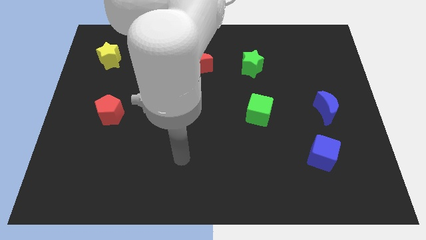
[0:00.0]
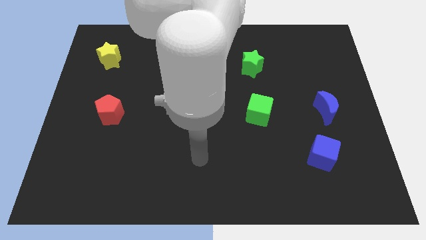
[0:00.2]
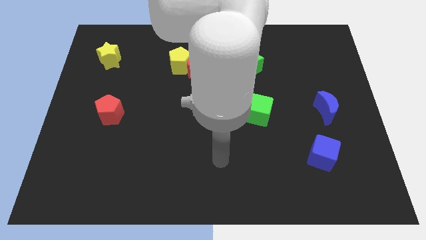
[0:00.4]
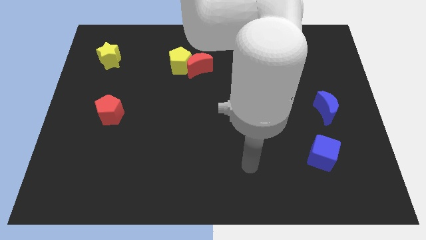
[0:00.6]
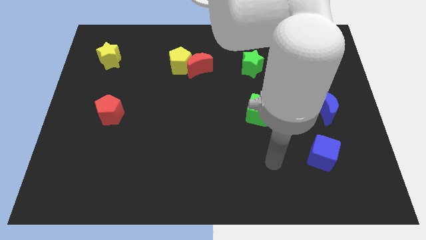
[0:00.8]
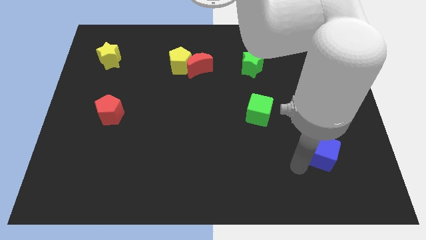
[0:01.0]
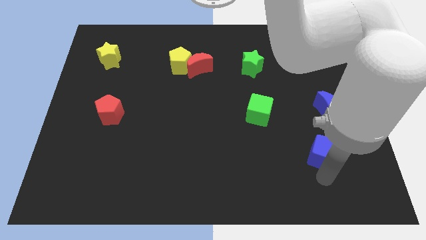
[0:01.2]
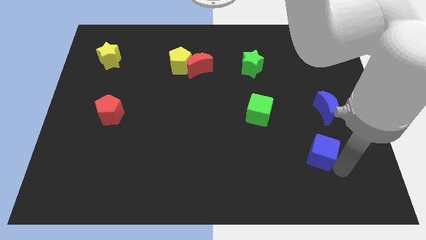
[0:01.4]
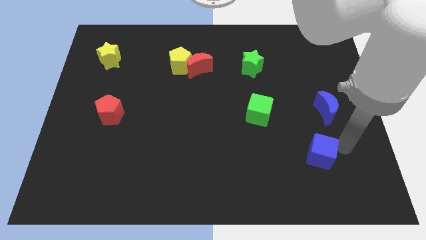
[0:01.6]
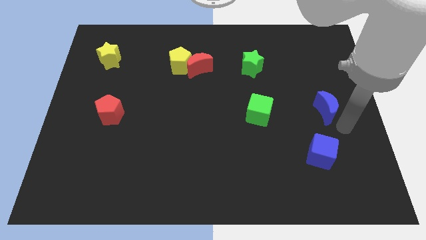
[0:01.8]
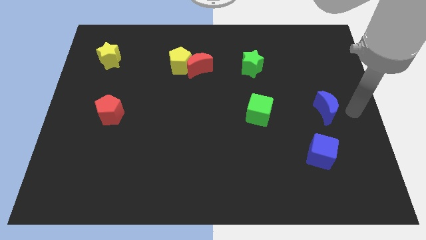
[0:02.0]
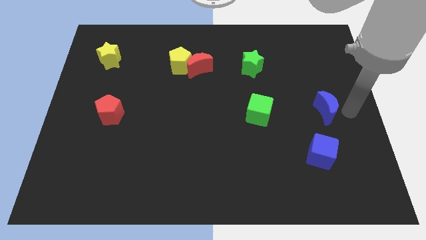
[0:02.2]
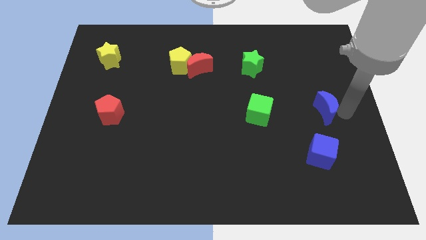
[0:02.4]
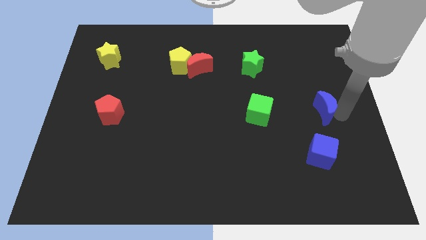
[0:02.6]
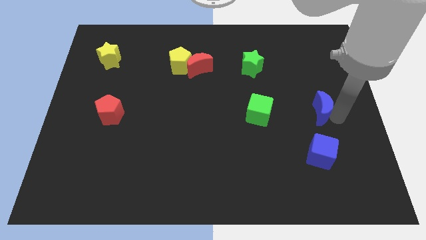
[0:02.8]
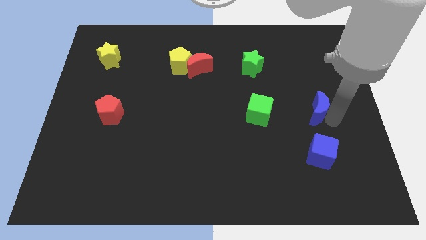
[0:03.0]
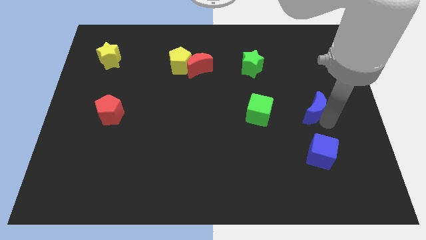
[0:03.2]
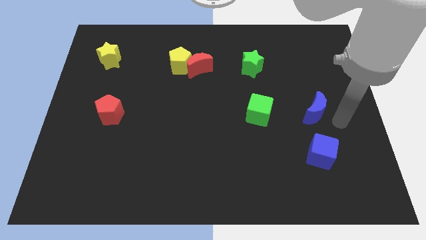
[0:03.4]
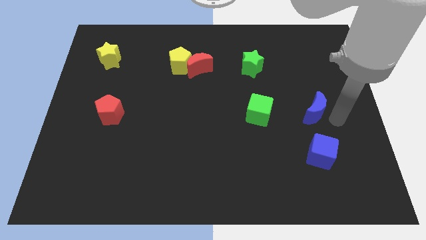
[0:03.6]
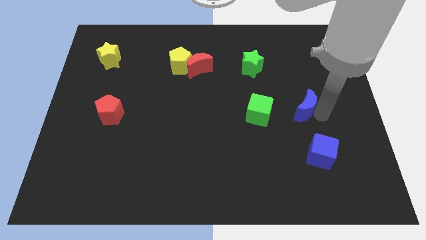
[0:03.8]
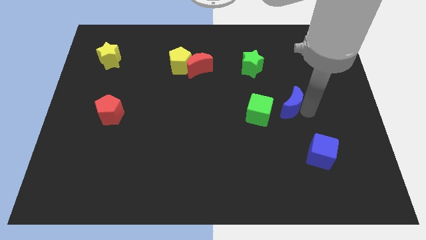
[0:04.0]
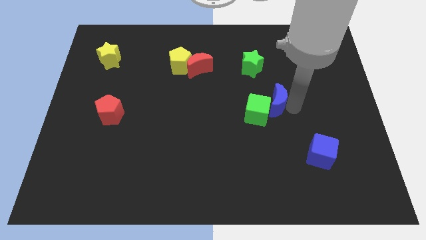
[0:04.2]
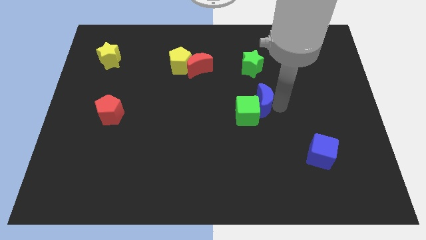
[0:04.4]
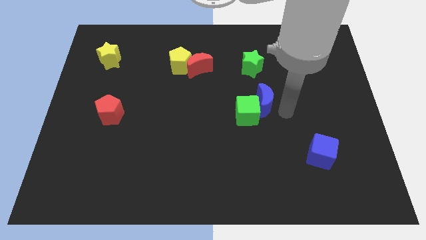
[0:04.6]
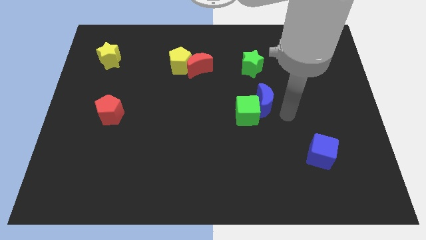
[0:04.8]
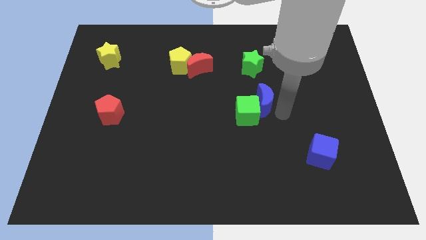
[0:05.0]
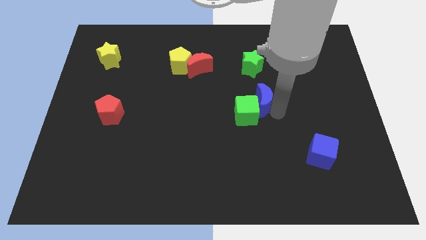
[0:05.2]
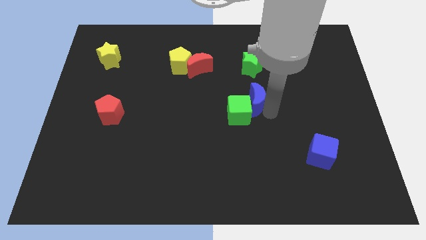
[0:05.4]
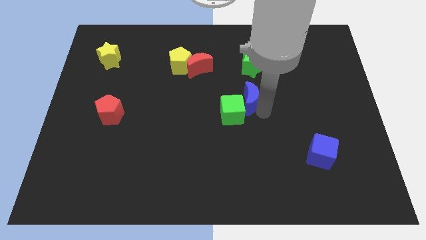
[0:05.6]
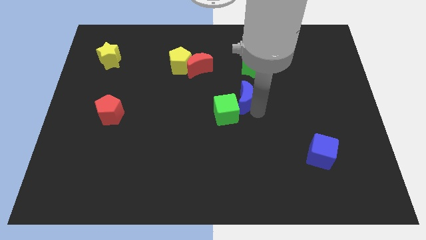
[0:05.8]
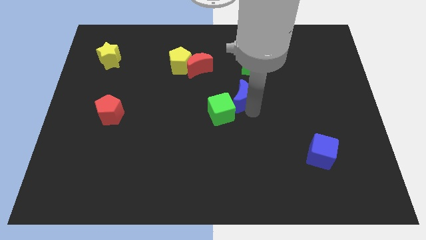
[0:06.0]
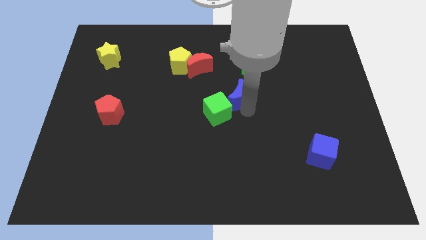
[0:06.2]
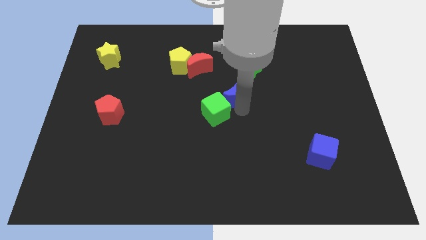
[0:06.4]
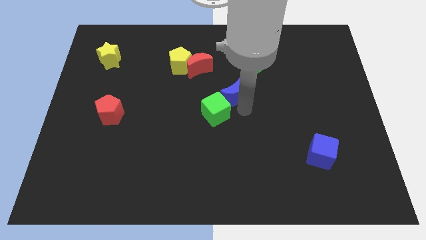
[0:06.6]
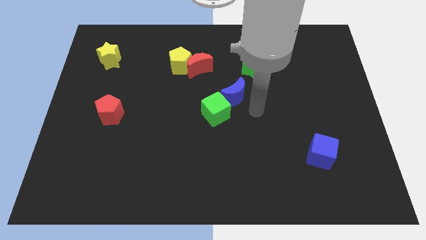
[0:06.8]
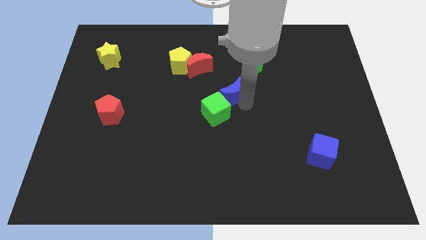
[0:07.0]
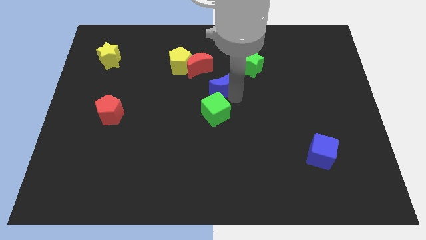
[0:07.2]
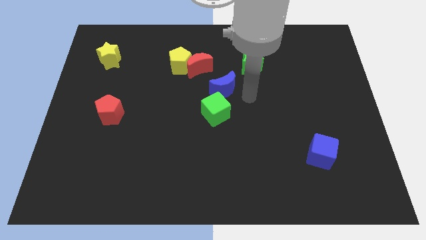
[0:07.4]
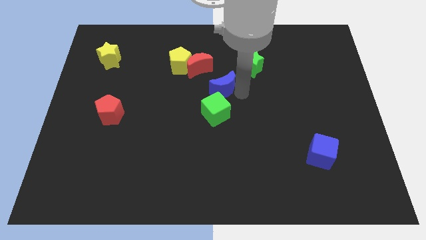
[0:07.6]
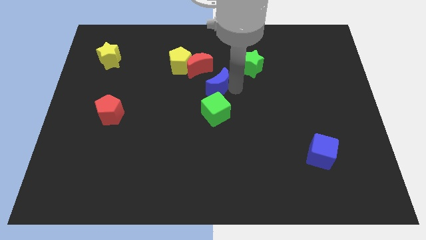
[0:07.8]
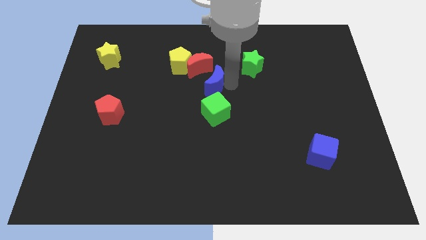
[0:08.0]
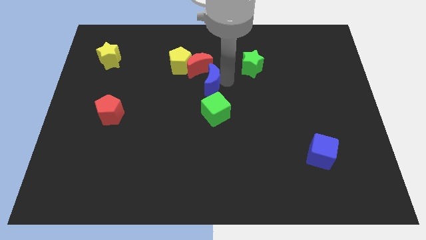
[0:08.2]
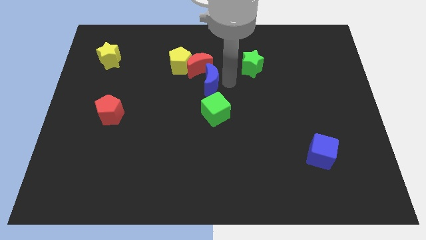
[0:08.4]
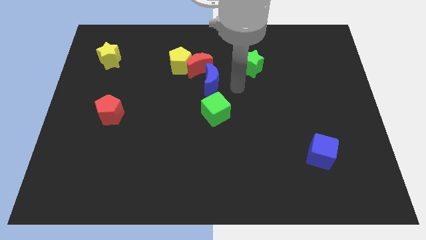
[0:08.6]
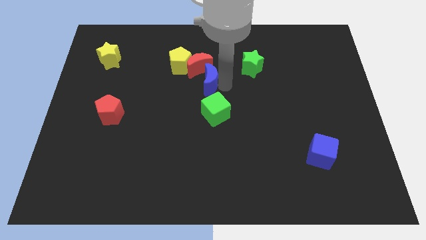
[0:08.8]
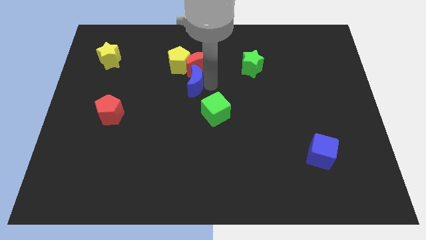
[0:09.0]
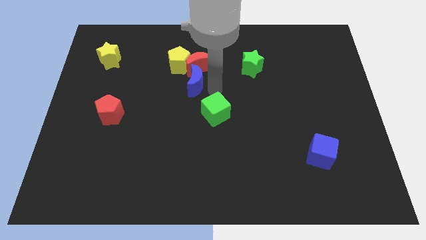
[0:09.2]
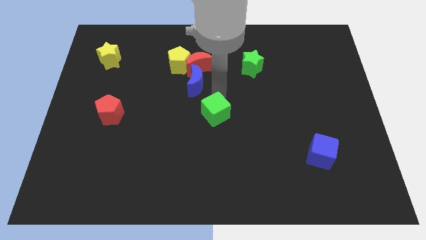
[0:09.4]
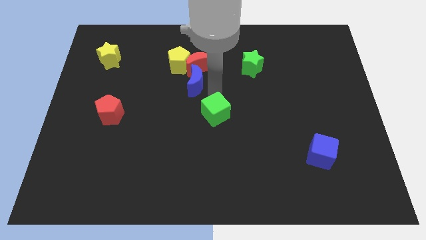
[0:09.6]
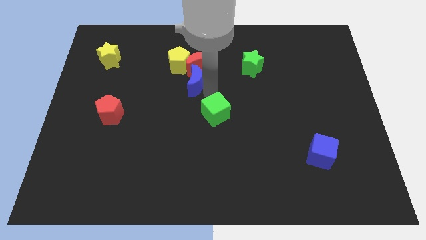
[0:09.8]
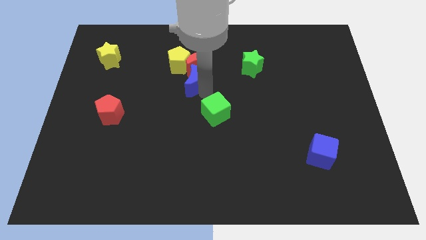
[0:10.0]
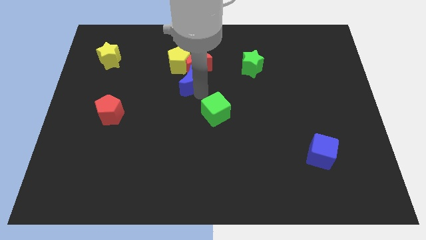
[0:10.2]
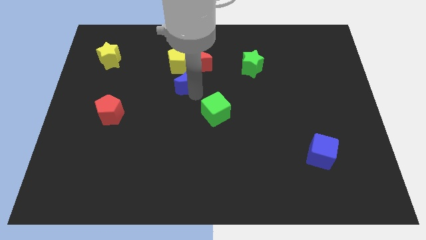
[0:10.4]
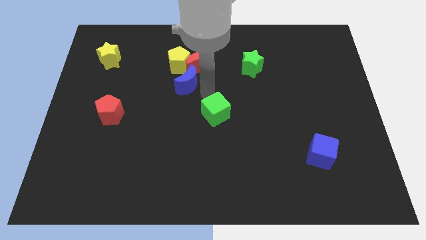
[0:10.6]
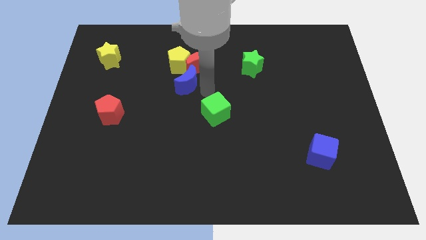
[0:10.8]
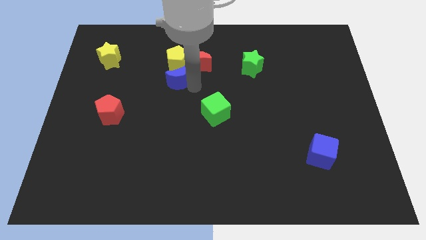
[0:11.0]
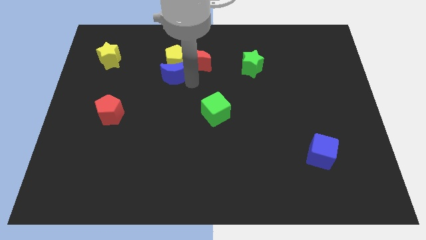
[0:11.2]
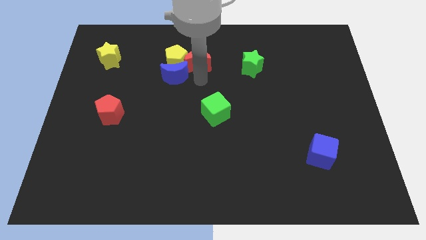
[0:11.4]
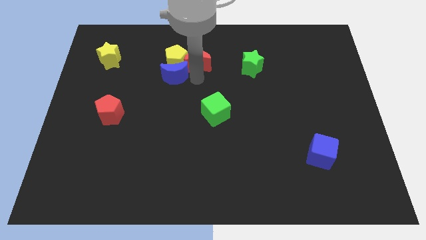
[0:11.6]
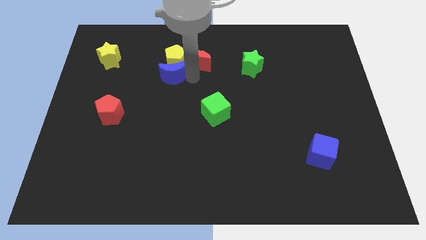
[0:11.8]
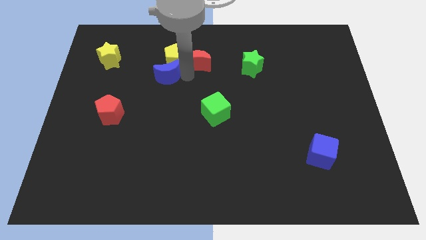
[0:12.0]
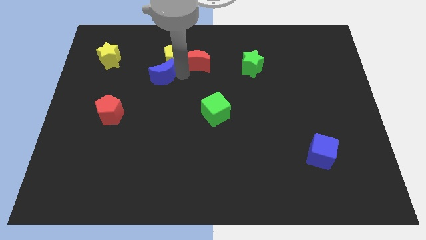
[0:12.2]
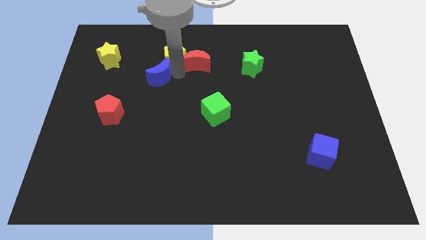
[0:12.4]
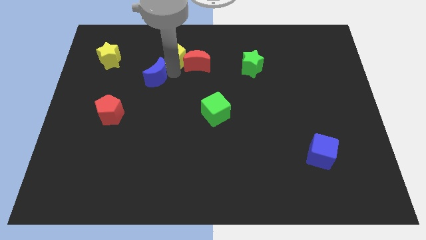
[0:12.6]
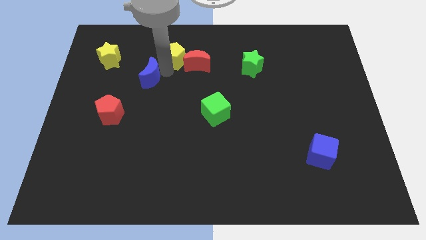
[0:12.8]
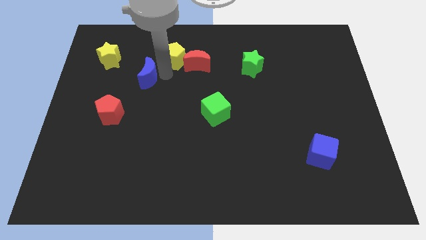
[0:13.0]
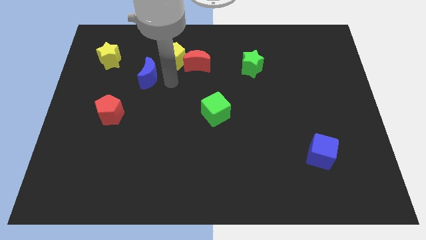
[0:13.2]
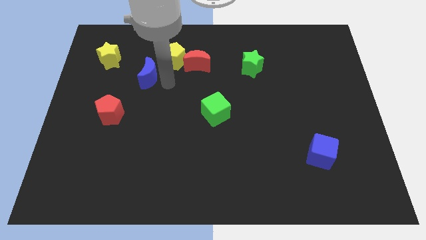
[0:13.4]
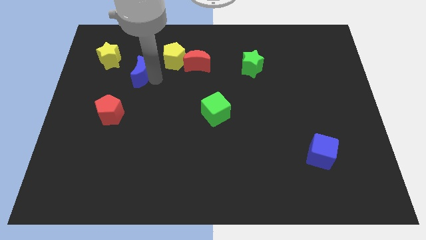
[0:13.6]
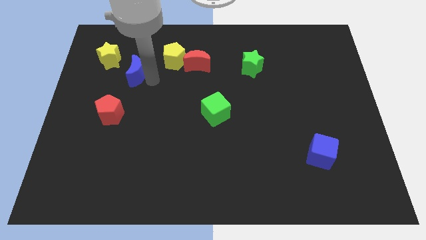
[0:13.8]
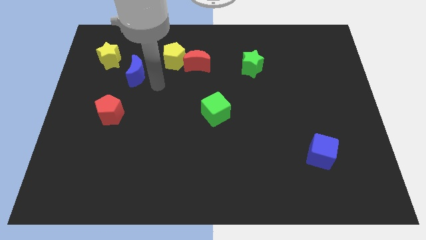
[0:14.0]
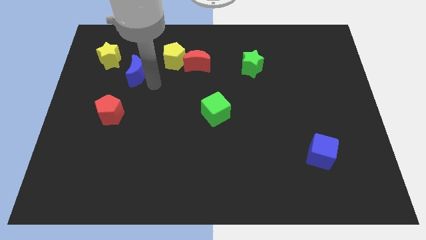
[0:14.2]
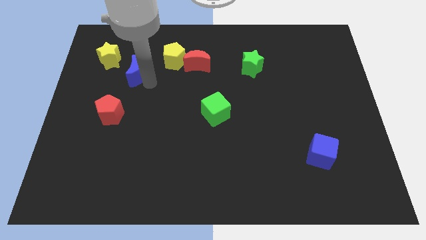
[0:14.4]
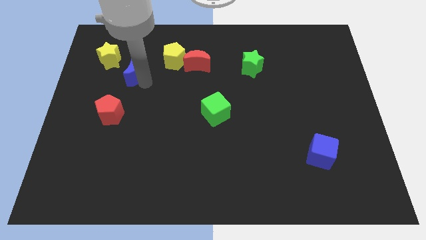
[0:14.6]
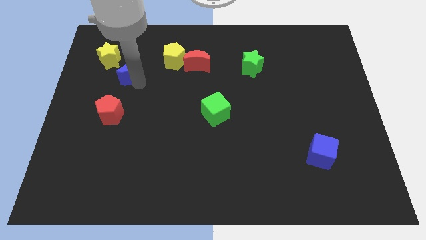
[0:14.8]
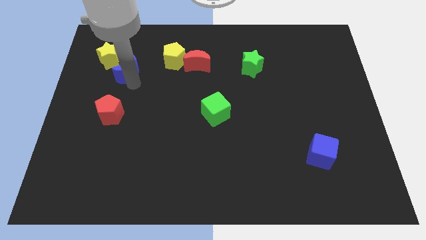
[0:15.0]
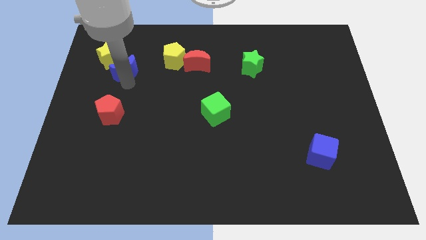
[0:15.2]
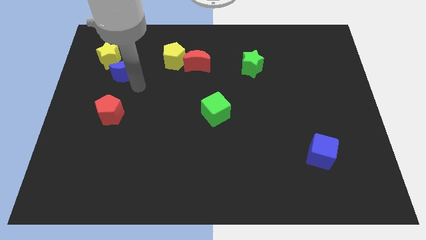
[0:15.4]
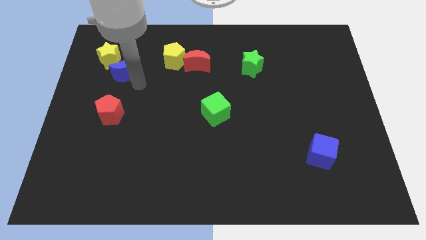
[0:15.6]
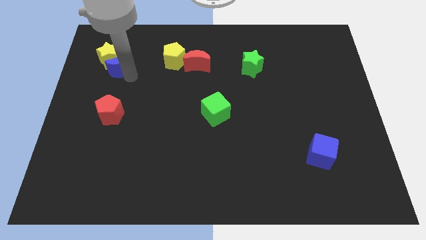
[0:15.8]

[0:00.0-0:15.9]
push the blue moon next to the yellow star

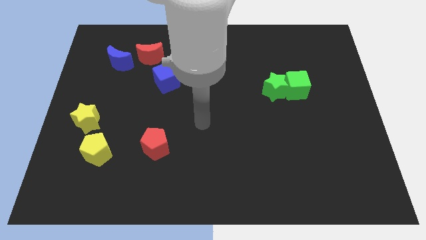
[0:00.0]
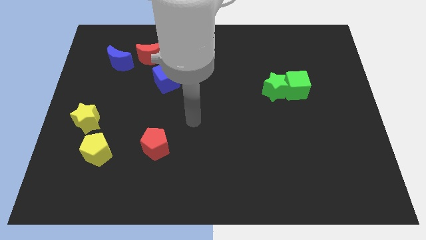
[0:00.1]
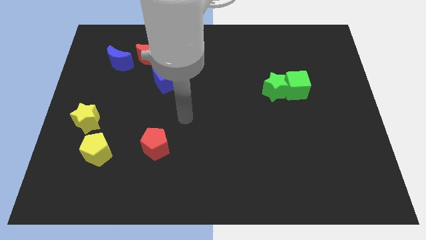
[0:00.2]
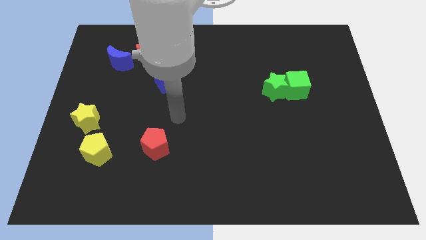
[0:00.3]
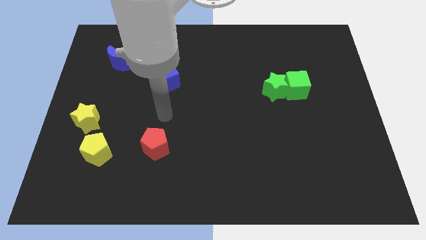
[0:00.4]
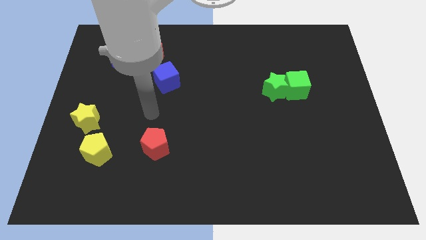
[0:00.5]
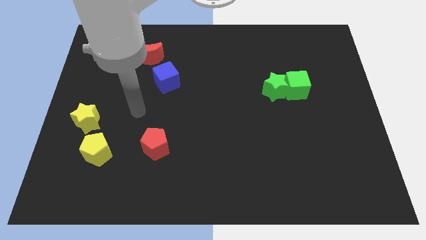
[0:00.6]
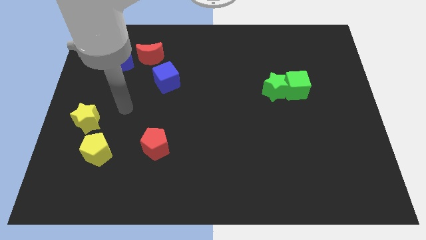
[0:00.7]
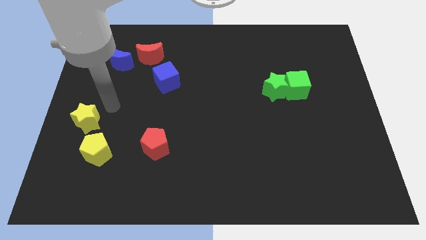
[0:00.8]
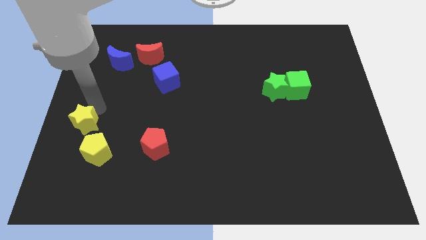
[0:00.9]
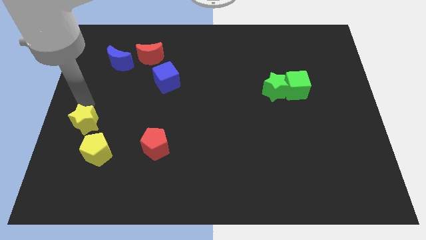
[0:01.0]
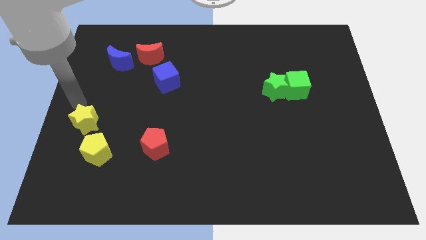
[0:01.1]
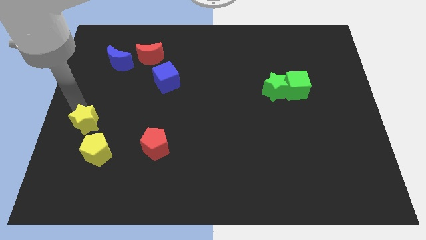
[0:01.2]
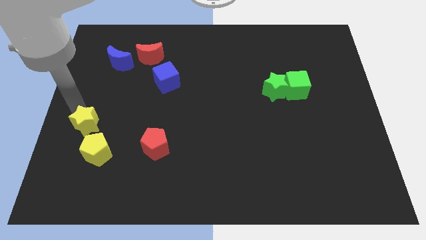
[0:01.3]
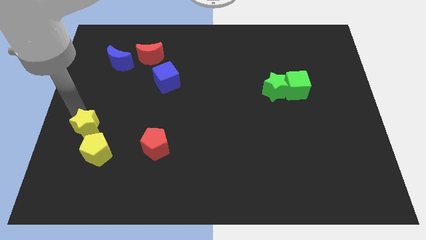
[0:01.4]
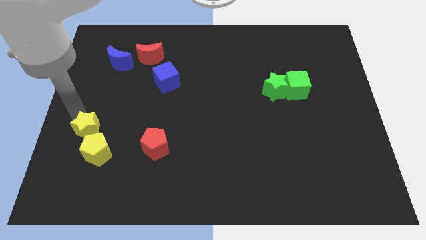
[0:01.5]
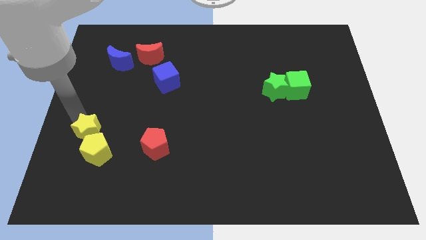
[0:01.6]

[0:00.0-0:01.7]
push the yellow star towards the yellow pentagon
